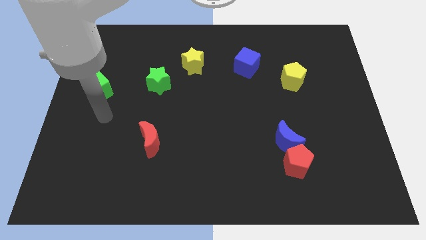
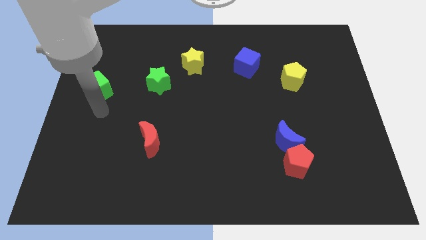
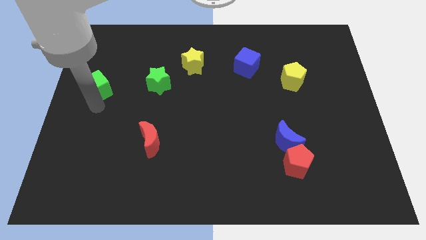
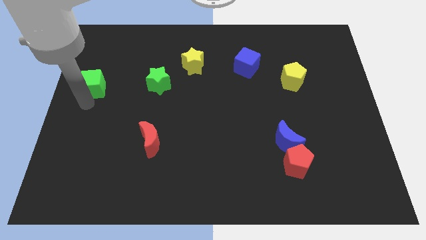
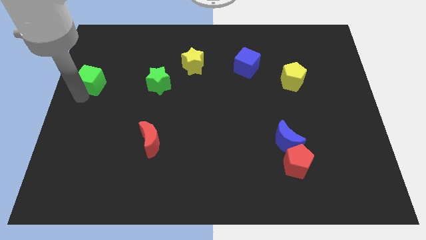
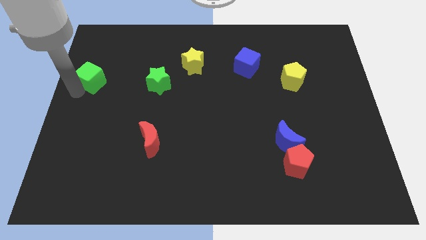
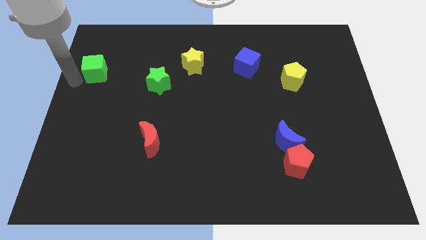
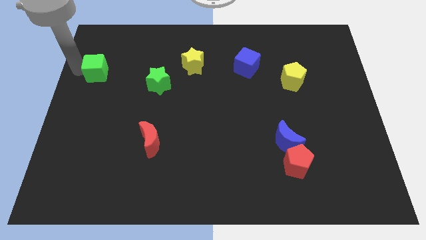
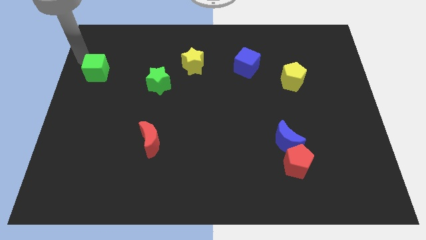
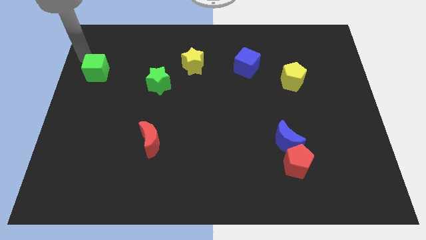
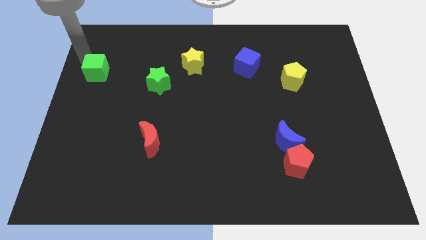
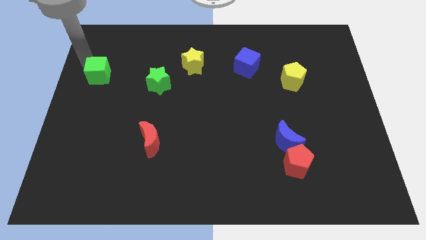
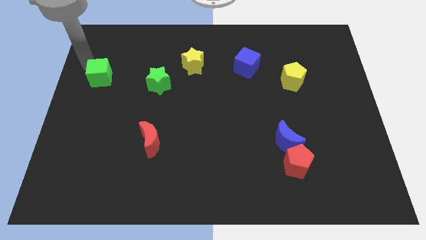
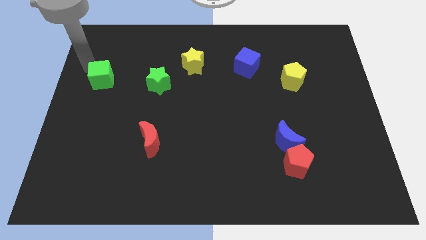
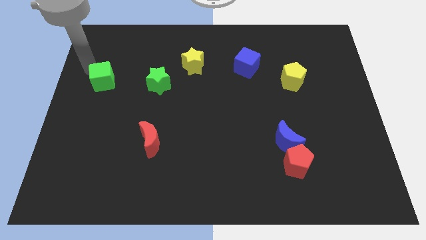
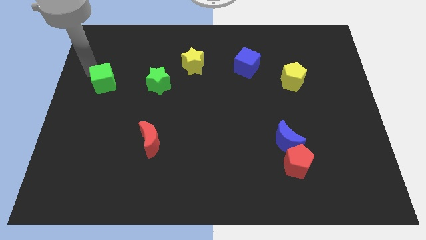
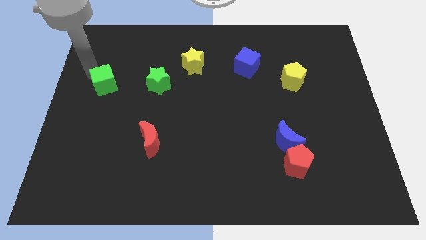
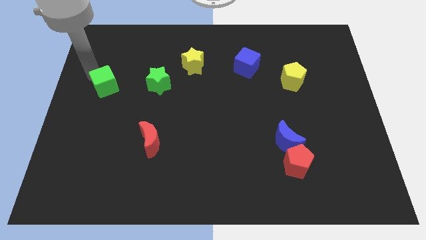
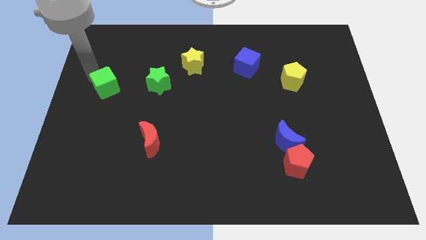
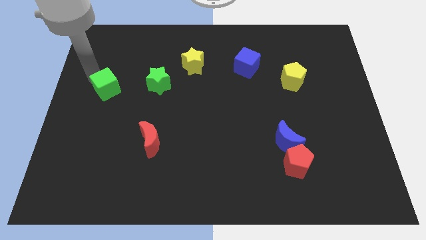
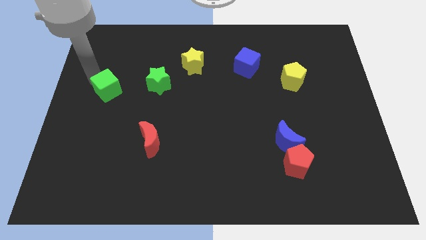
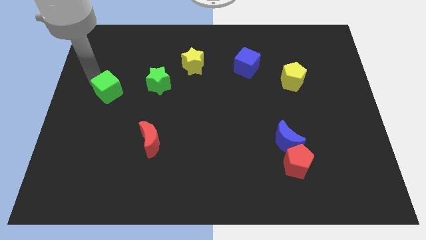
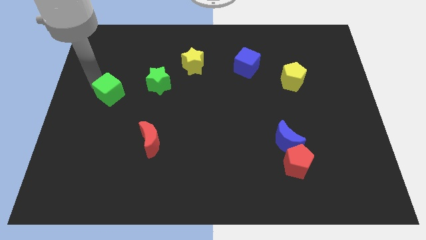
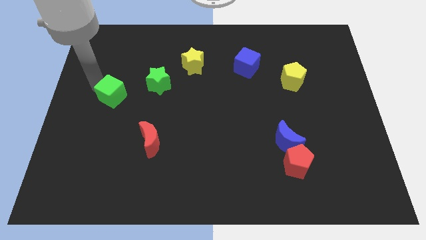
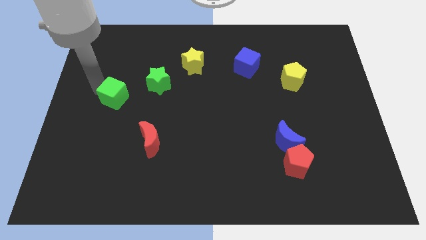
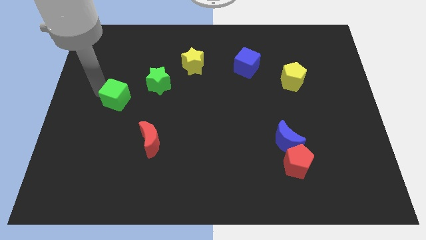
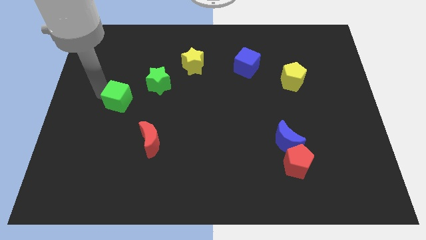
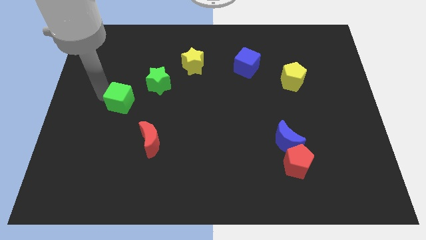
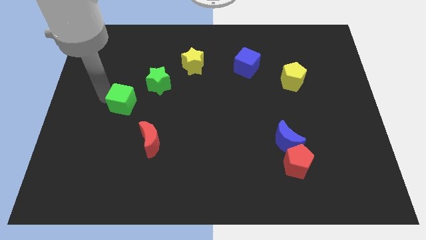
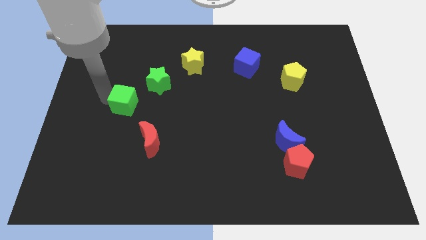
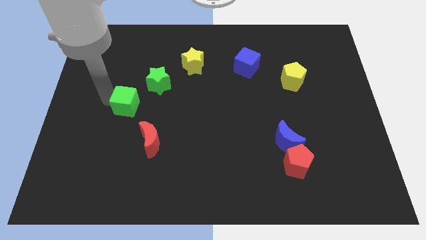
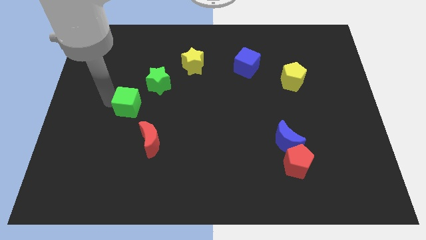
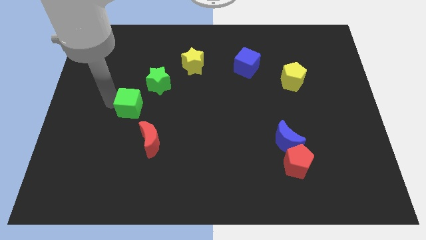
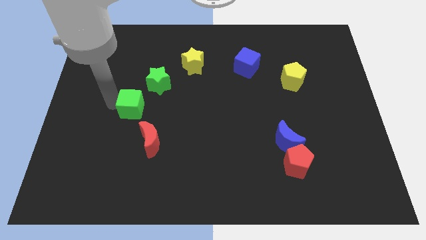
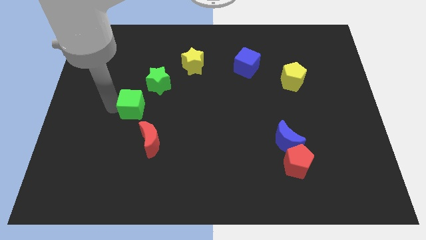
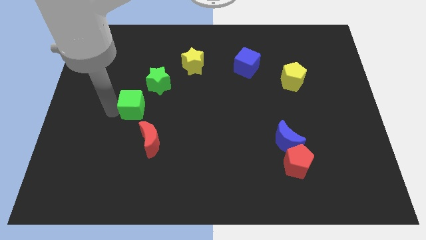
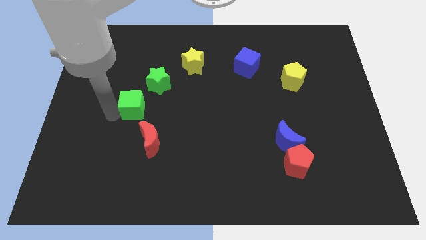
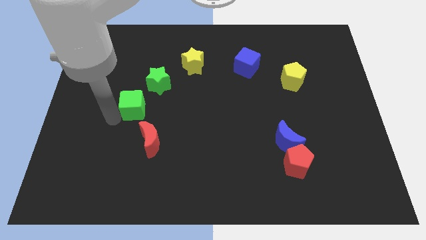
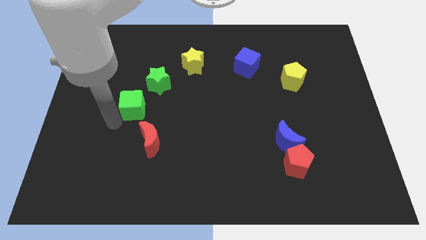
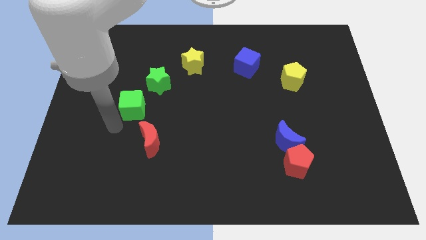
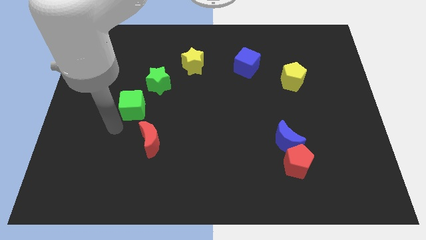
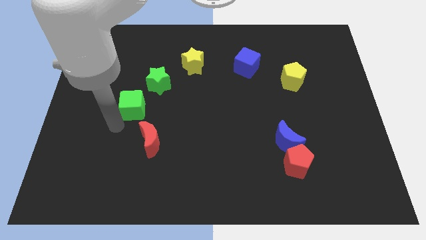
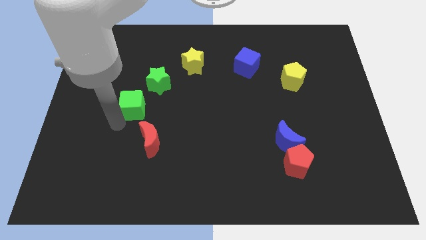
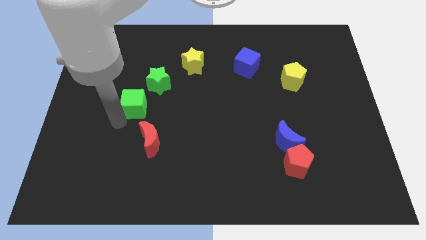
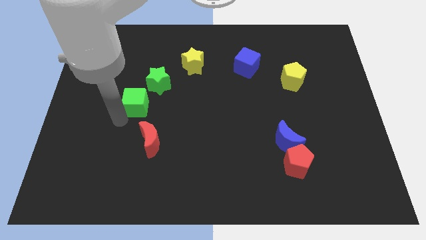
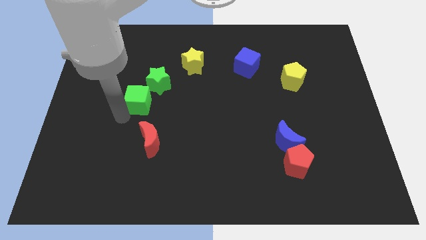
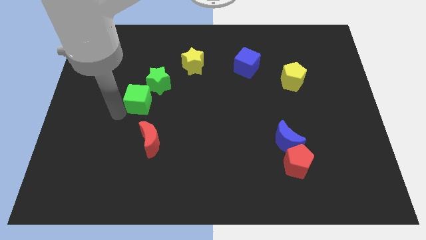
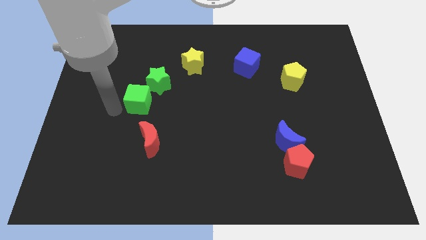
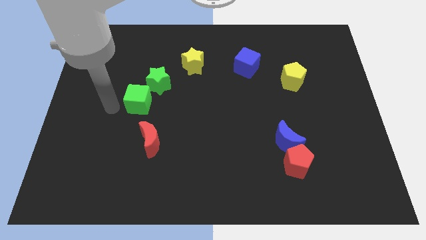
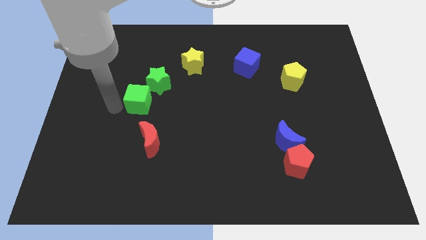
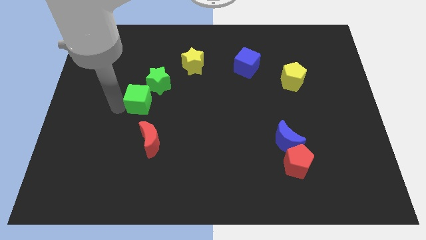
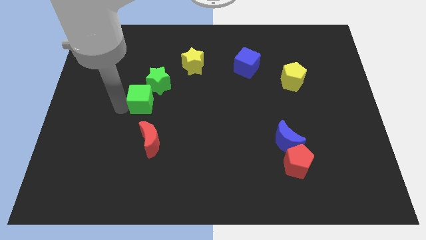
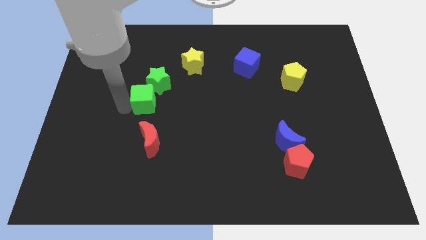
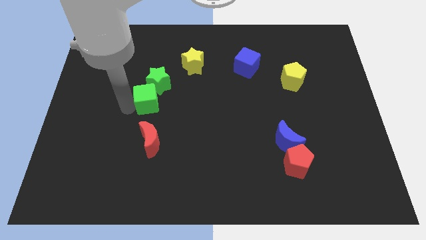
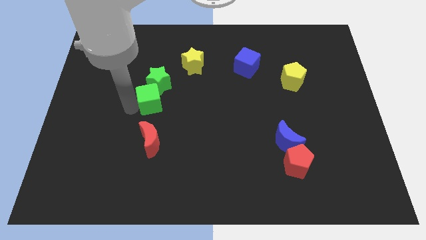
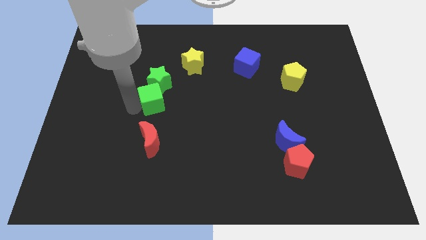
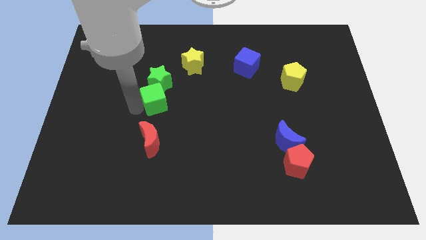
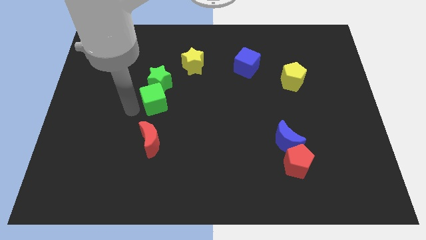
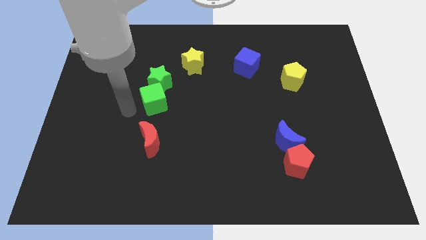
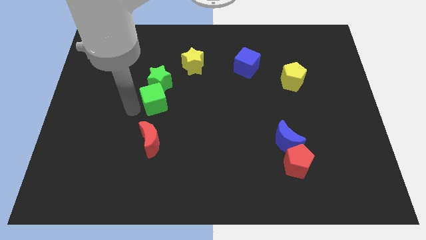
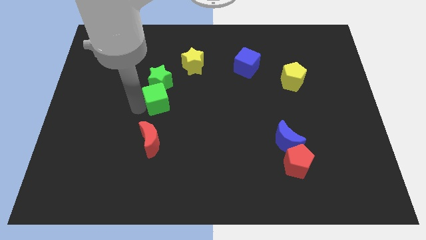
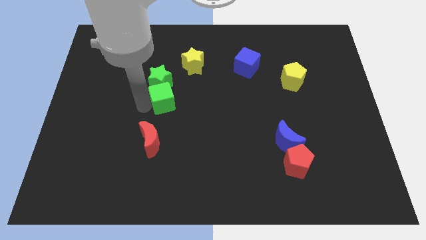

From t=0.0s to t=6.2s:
slide the green cube to the middle
